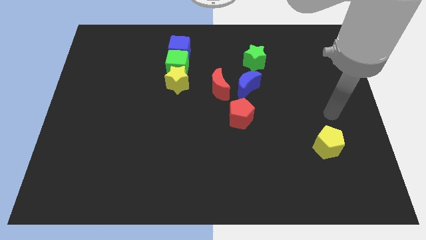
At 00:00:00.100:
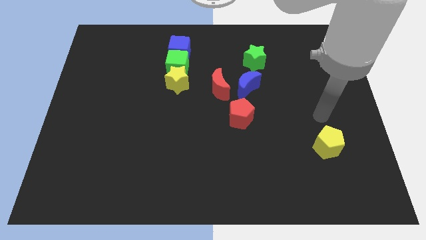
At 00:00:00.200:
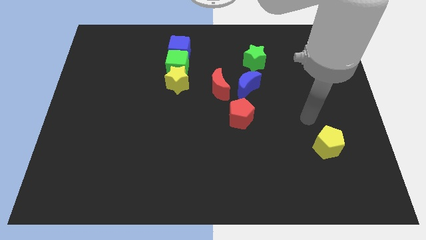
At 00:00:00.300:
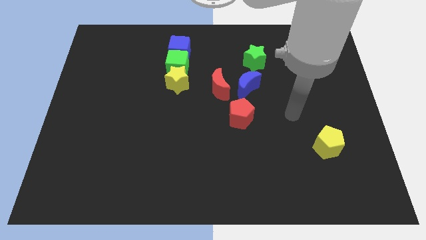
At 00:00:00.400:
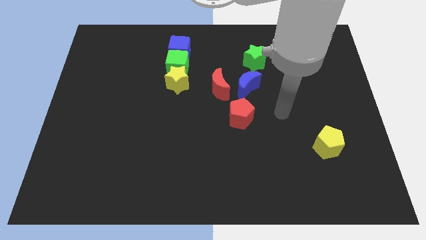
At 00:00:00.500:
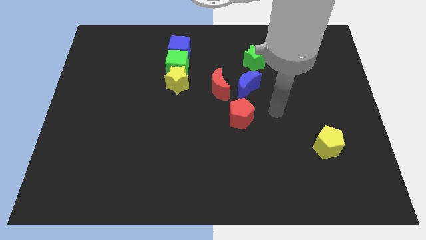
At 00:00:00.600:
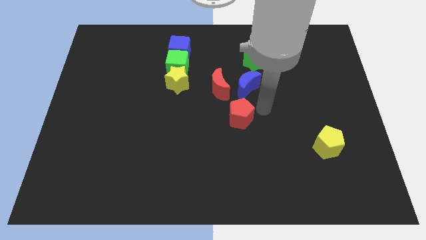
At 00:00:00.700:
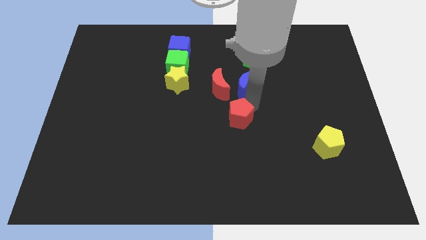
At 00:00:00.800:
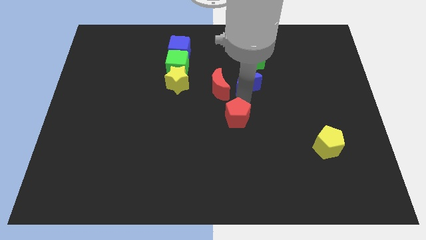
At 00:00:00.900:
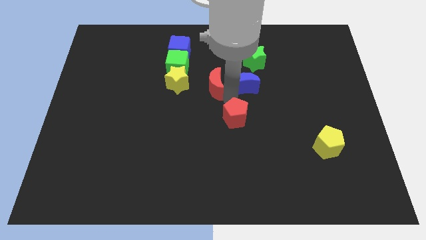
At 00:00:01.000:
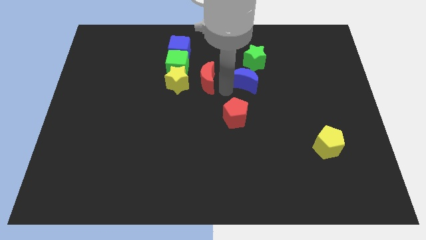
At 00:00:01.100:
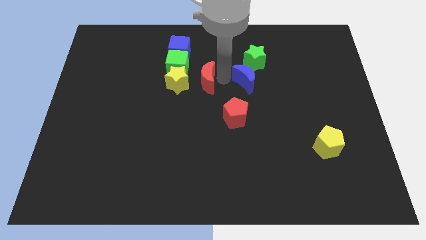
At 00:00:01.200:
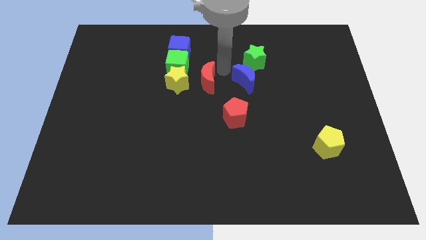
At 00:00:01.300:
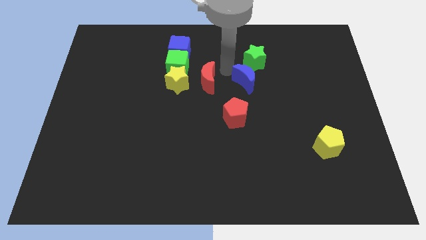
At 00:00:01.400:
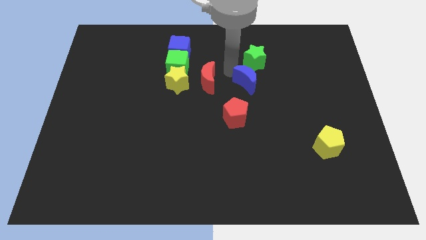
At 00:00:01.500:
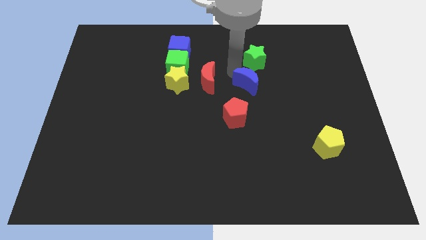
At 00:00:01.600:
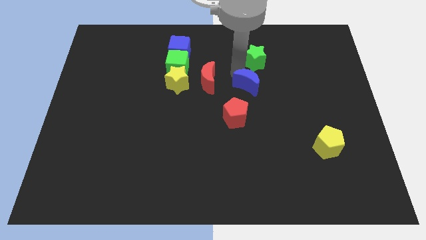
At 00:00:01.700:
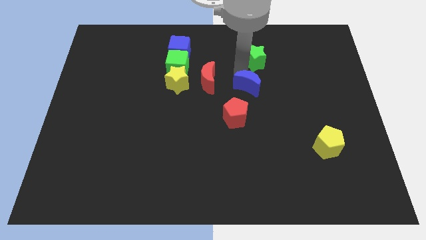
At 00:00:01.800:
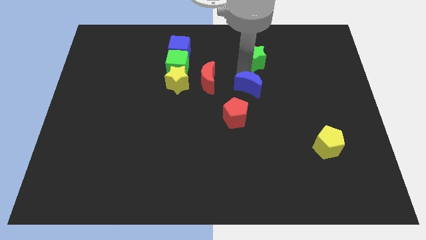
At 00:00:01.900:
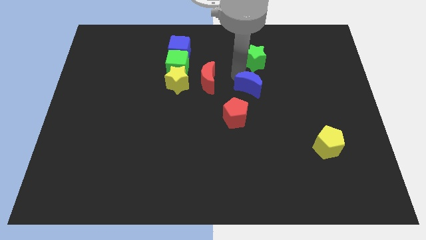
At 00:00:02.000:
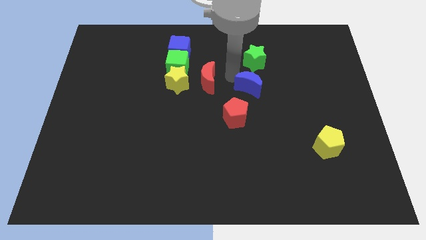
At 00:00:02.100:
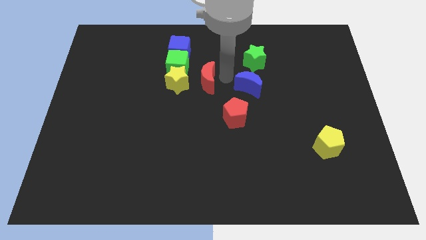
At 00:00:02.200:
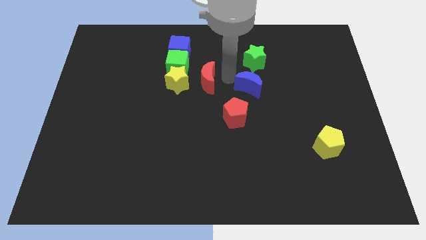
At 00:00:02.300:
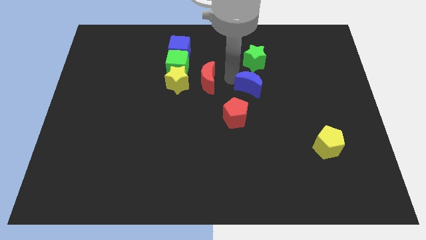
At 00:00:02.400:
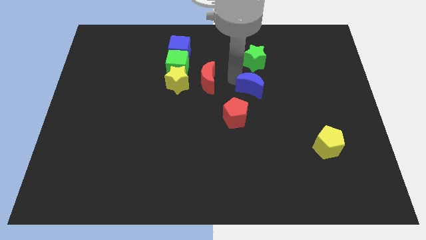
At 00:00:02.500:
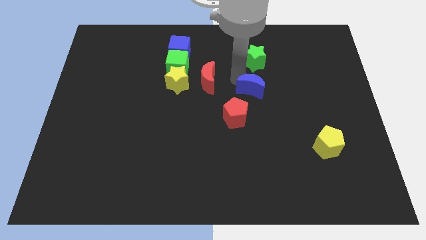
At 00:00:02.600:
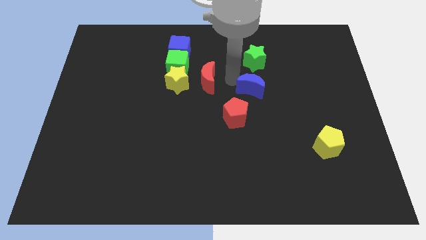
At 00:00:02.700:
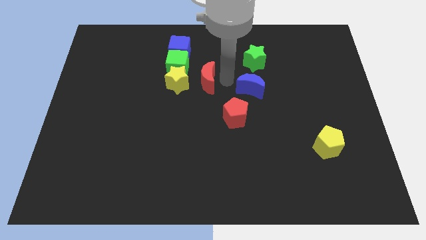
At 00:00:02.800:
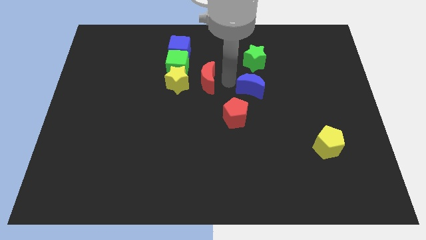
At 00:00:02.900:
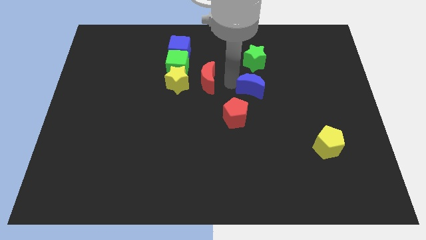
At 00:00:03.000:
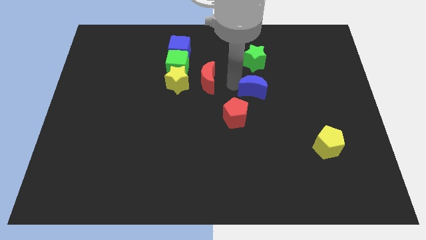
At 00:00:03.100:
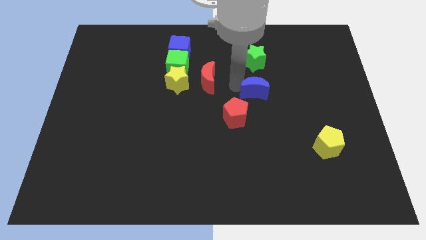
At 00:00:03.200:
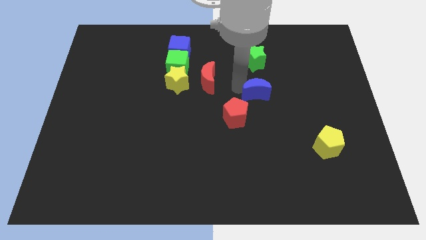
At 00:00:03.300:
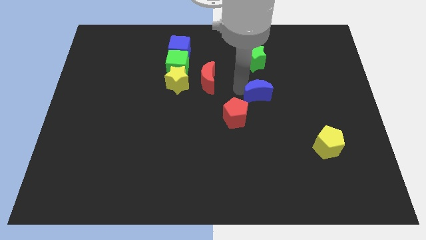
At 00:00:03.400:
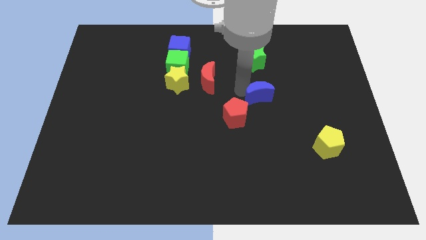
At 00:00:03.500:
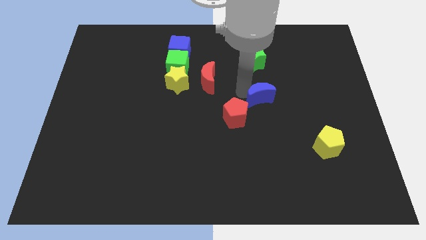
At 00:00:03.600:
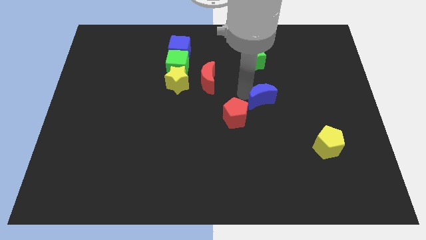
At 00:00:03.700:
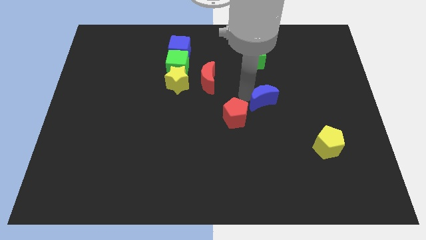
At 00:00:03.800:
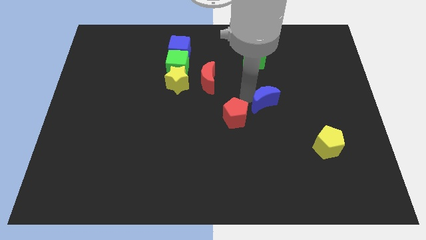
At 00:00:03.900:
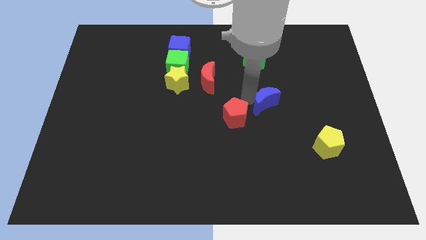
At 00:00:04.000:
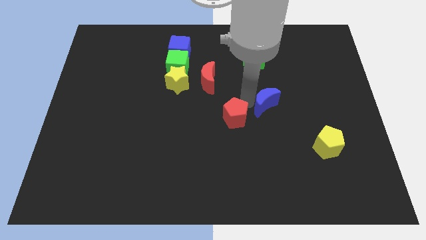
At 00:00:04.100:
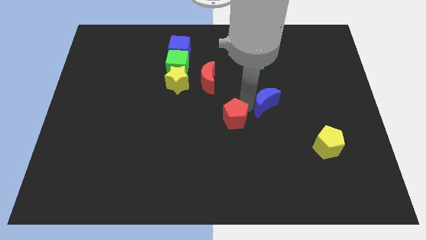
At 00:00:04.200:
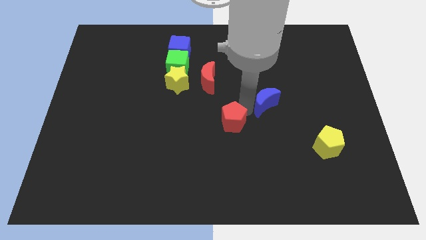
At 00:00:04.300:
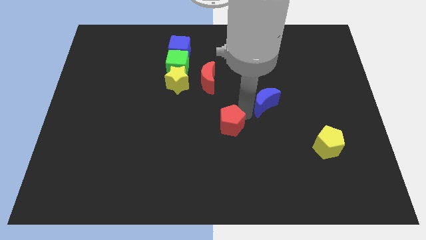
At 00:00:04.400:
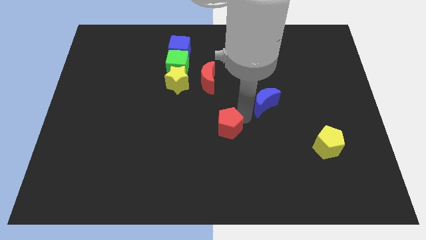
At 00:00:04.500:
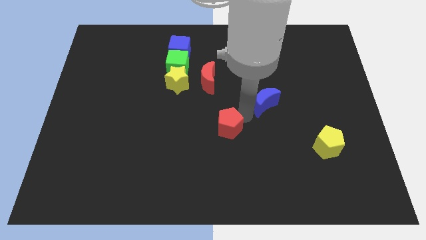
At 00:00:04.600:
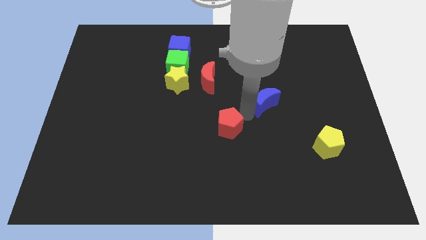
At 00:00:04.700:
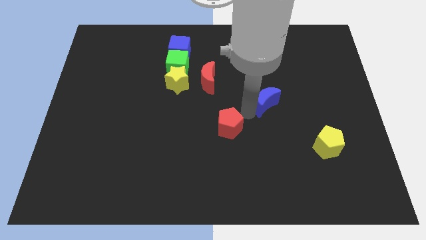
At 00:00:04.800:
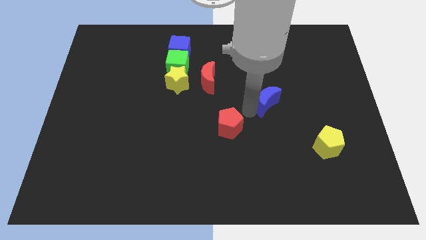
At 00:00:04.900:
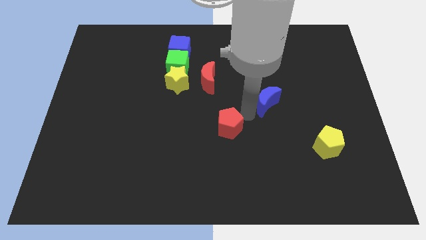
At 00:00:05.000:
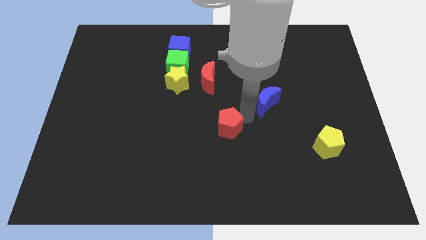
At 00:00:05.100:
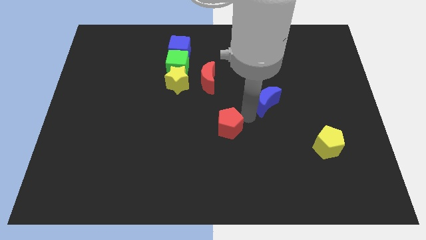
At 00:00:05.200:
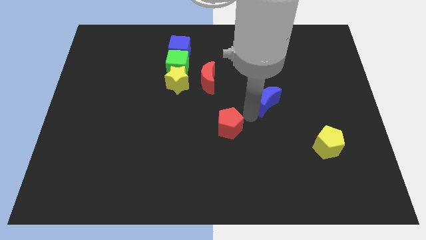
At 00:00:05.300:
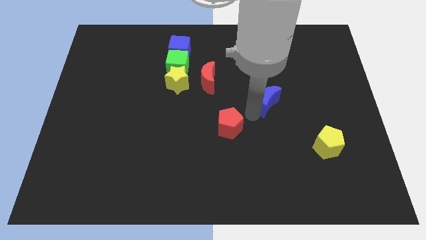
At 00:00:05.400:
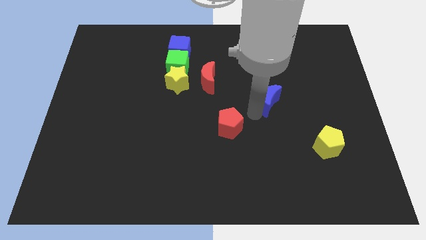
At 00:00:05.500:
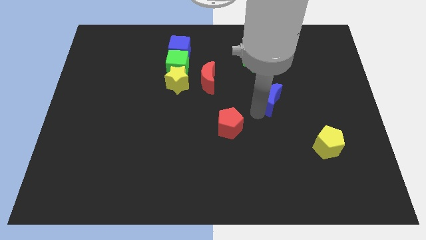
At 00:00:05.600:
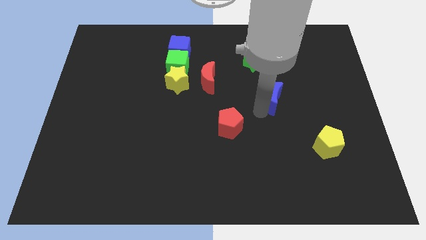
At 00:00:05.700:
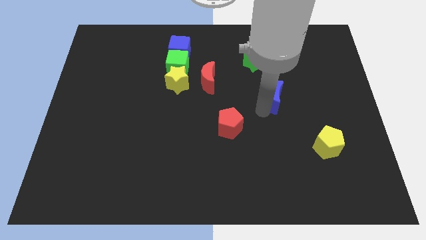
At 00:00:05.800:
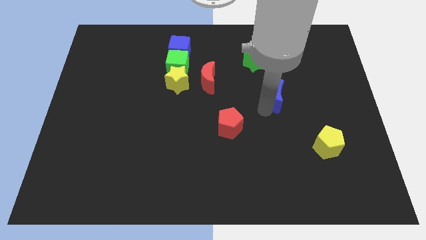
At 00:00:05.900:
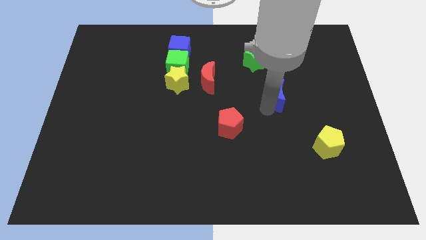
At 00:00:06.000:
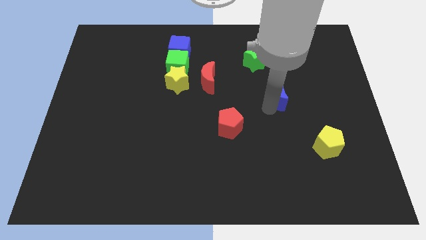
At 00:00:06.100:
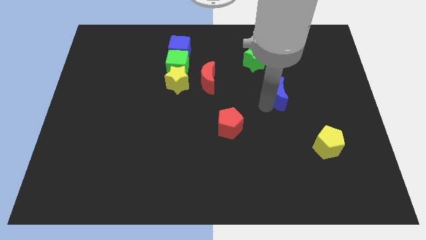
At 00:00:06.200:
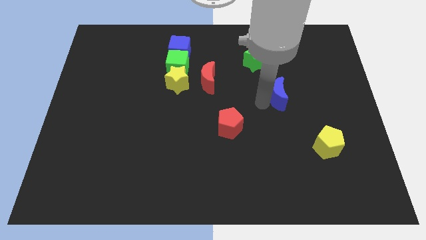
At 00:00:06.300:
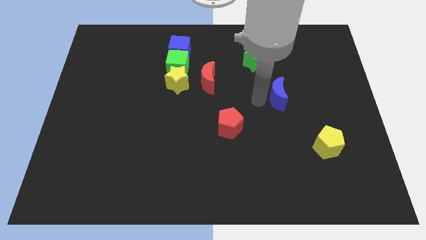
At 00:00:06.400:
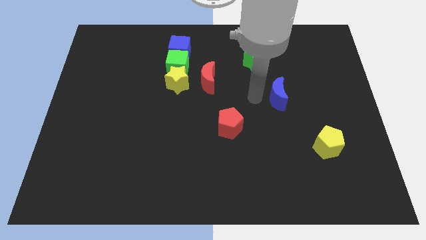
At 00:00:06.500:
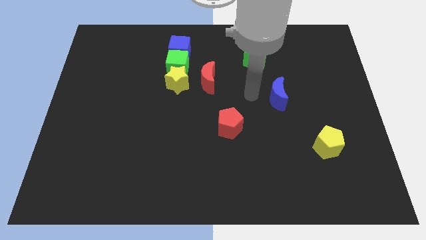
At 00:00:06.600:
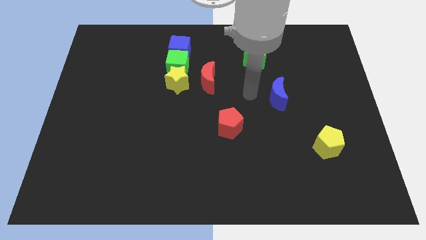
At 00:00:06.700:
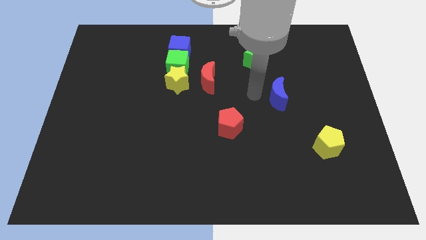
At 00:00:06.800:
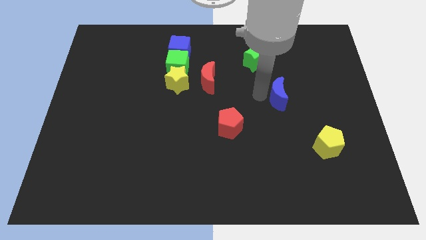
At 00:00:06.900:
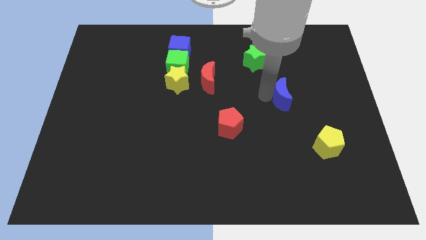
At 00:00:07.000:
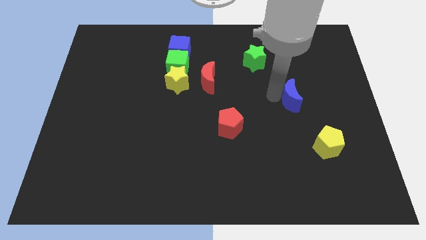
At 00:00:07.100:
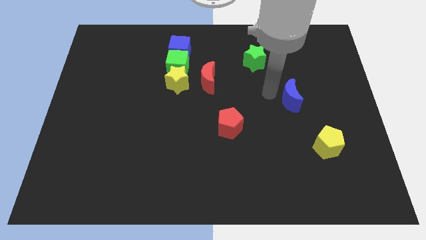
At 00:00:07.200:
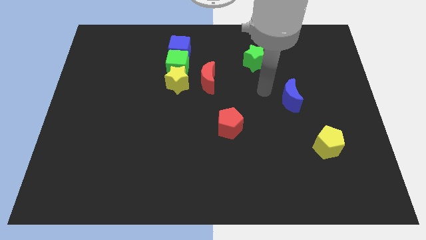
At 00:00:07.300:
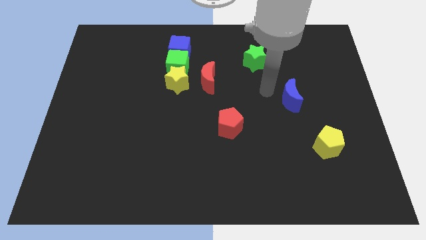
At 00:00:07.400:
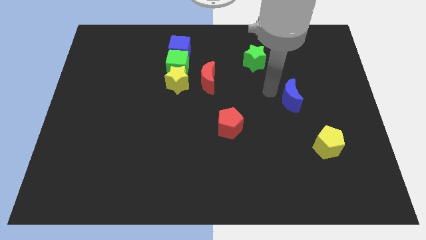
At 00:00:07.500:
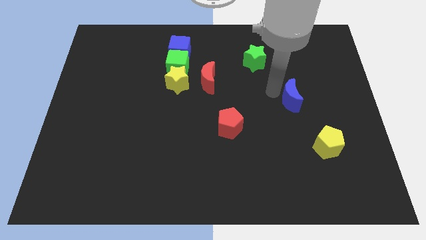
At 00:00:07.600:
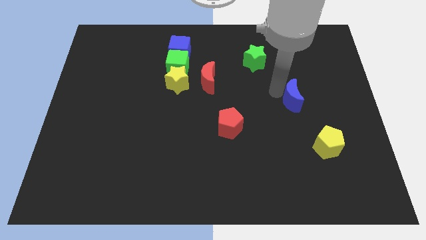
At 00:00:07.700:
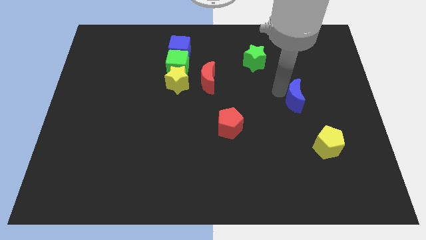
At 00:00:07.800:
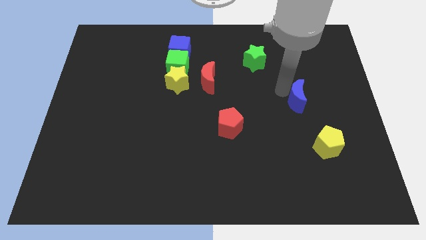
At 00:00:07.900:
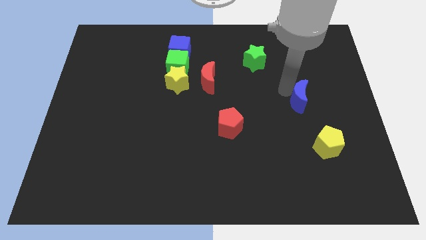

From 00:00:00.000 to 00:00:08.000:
push the blue moon to the top of the yellow pentagon
